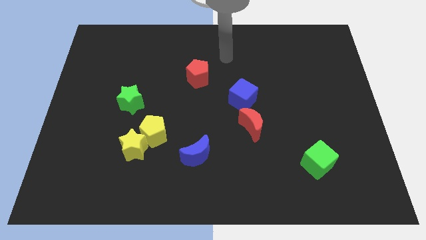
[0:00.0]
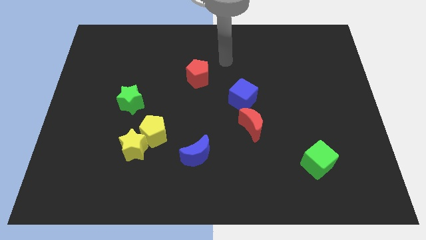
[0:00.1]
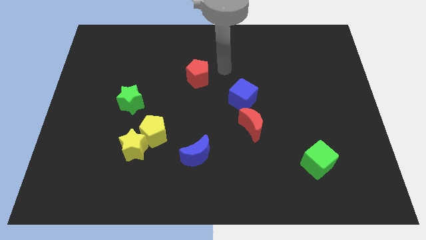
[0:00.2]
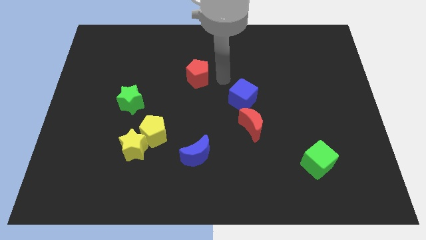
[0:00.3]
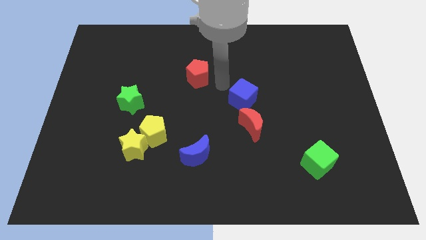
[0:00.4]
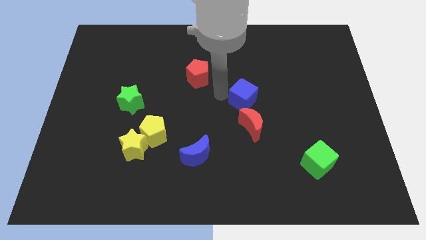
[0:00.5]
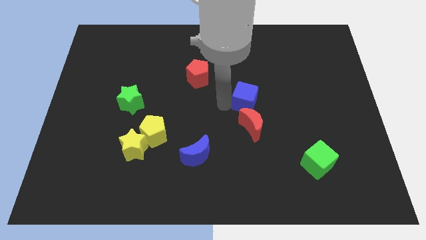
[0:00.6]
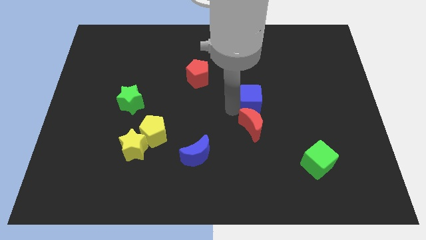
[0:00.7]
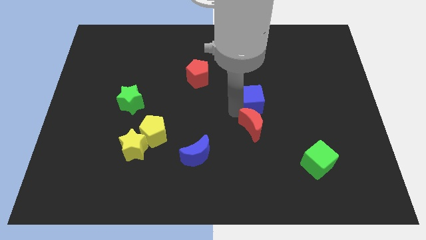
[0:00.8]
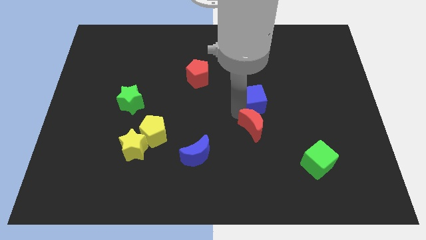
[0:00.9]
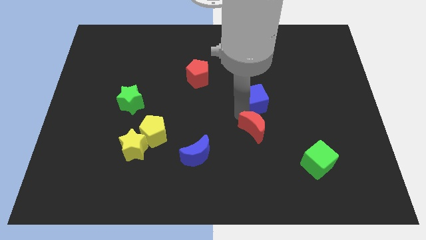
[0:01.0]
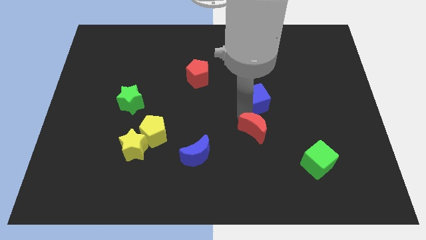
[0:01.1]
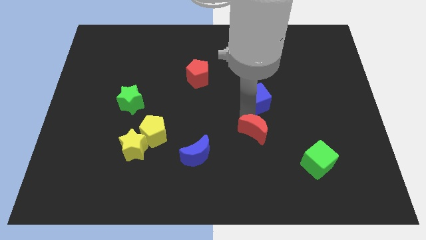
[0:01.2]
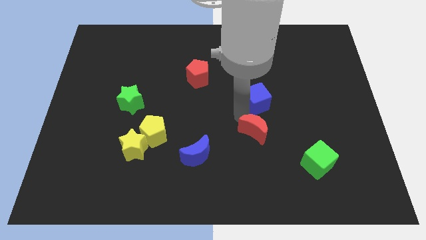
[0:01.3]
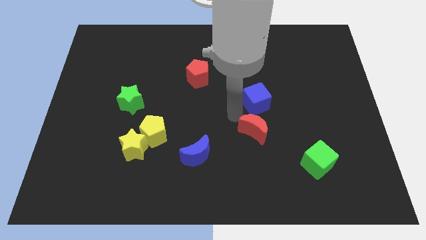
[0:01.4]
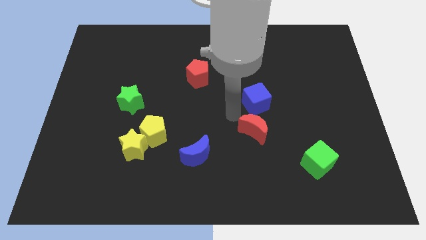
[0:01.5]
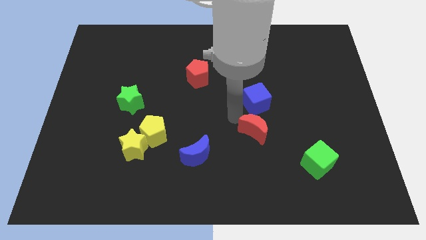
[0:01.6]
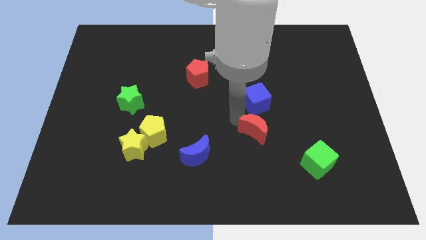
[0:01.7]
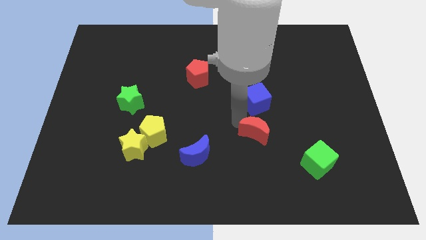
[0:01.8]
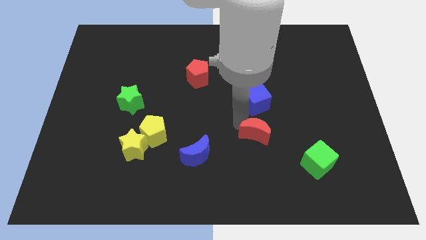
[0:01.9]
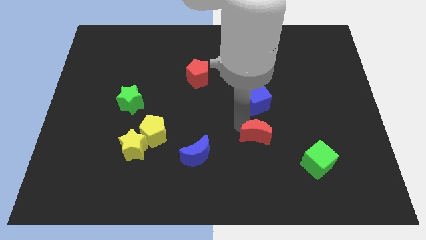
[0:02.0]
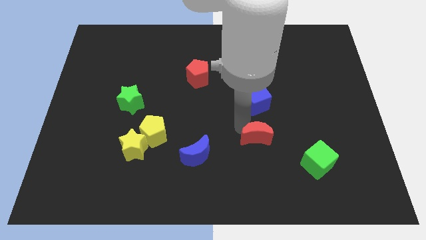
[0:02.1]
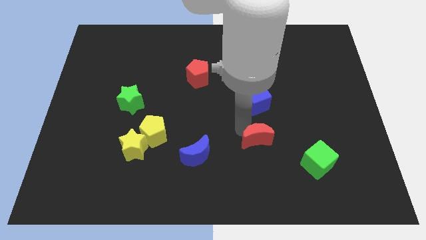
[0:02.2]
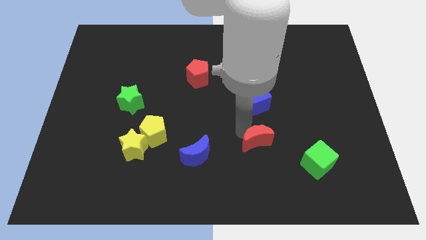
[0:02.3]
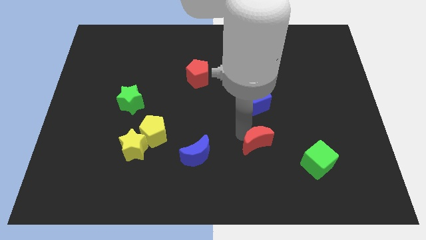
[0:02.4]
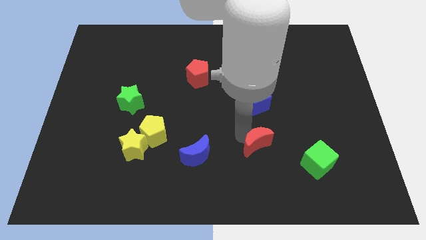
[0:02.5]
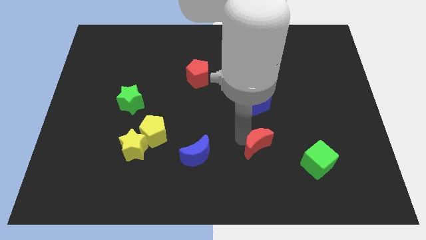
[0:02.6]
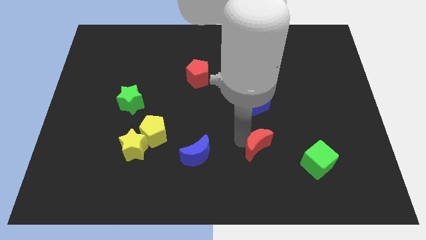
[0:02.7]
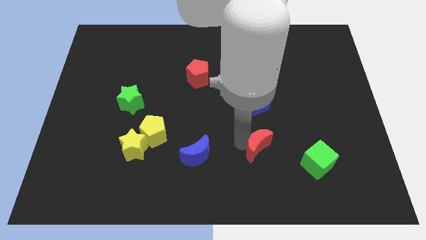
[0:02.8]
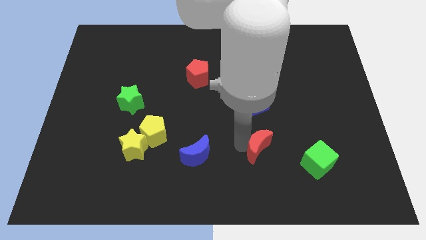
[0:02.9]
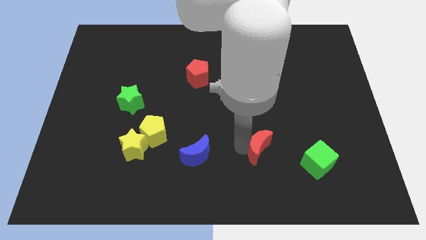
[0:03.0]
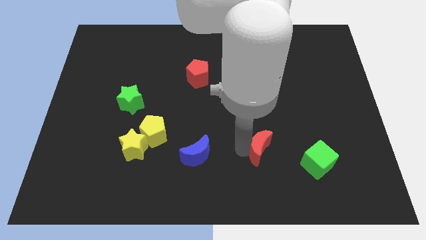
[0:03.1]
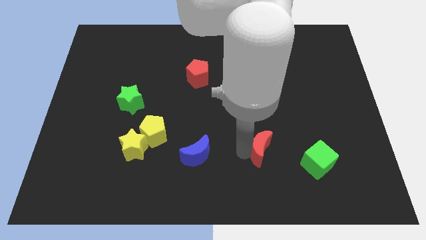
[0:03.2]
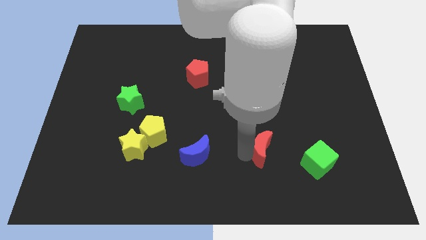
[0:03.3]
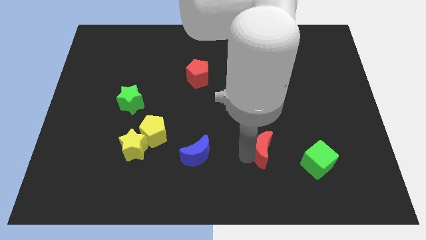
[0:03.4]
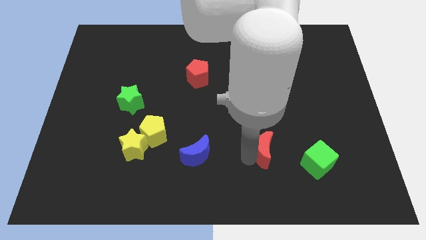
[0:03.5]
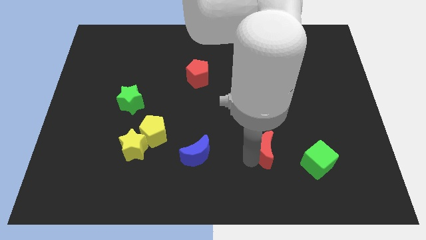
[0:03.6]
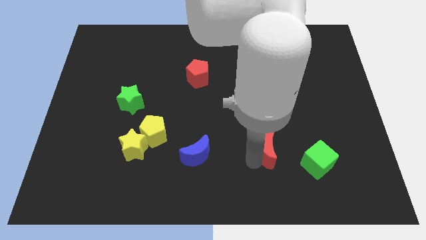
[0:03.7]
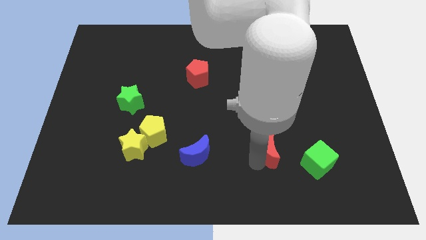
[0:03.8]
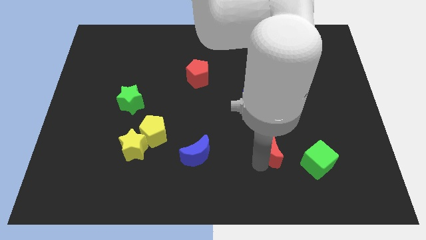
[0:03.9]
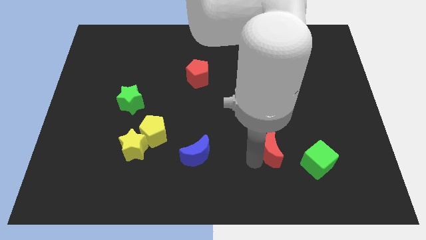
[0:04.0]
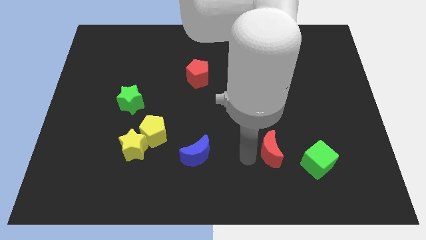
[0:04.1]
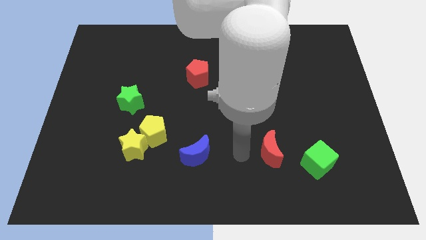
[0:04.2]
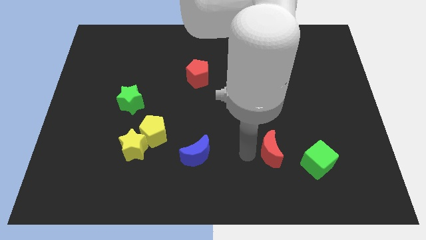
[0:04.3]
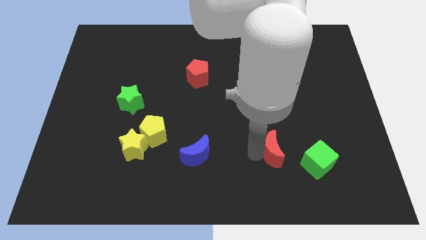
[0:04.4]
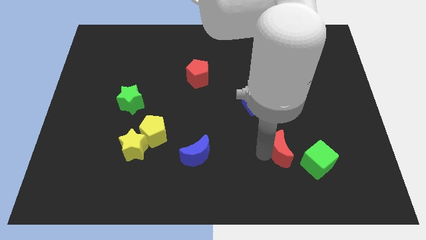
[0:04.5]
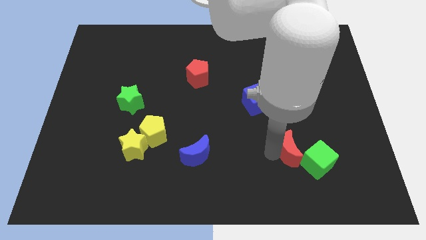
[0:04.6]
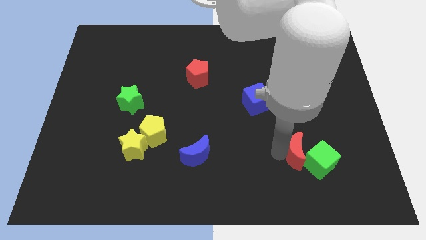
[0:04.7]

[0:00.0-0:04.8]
move the red moon towards the green cube

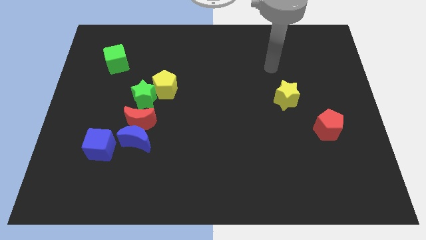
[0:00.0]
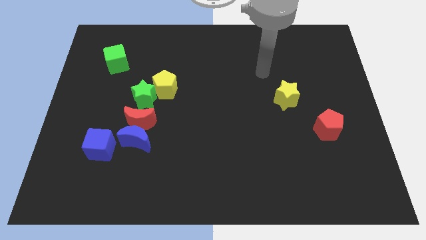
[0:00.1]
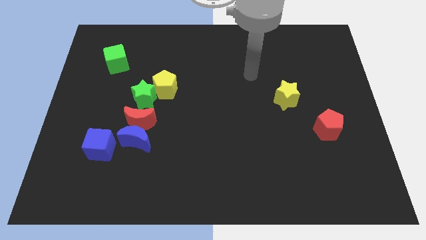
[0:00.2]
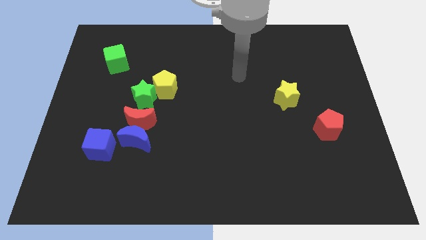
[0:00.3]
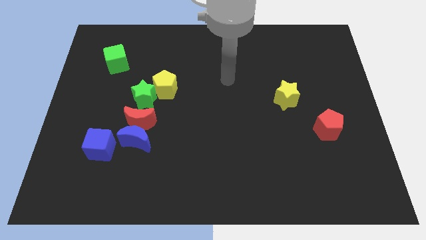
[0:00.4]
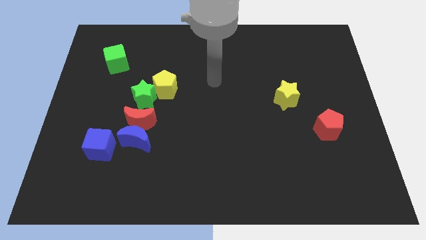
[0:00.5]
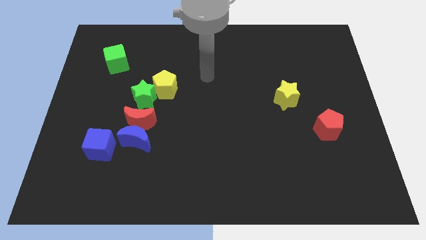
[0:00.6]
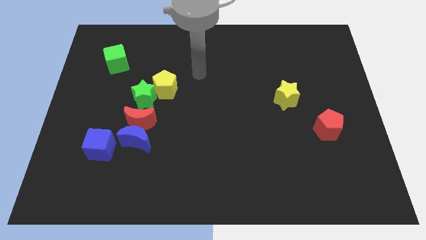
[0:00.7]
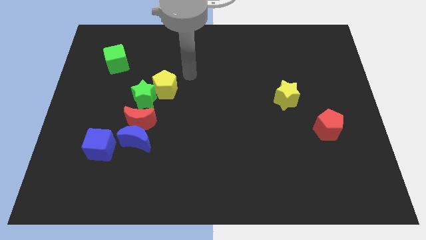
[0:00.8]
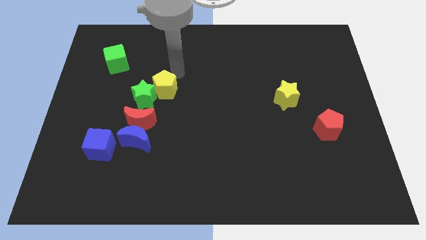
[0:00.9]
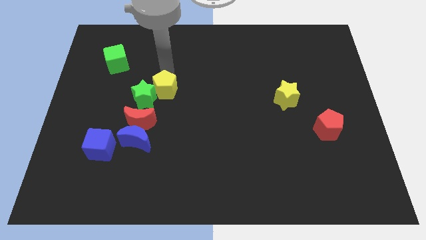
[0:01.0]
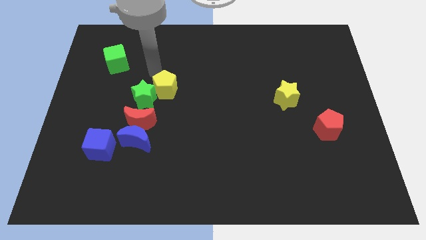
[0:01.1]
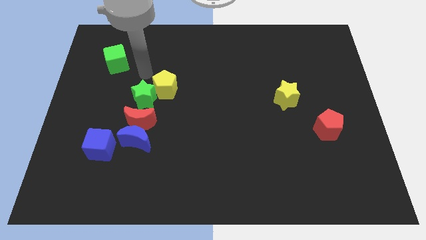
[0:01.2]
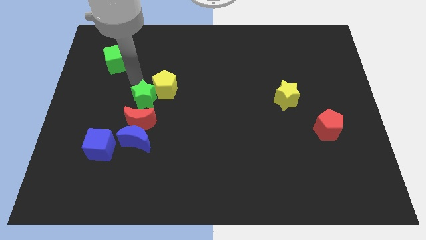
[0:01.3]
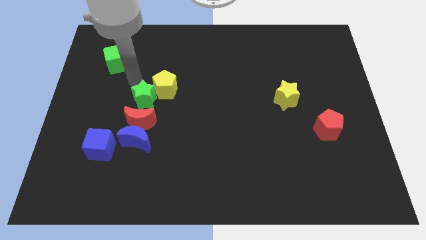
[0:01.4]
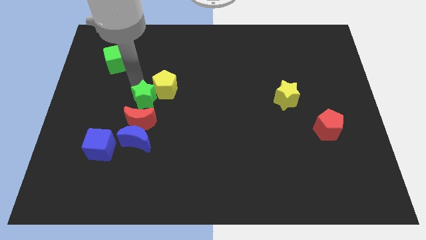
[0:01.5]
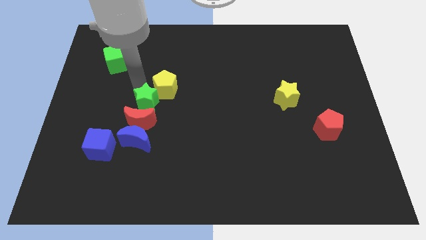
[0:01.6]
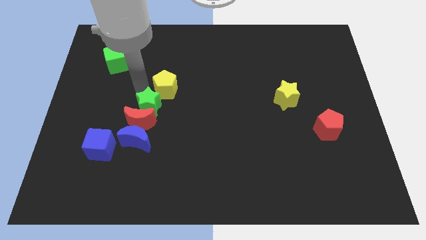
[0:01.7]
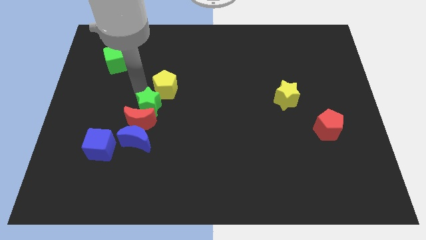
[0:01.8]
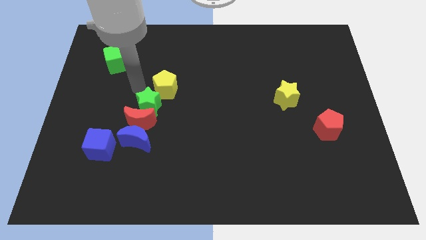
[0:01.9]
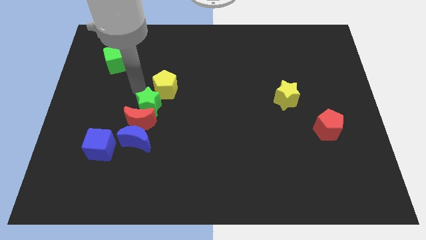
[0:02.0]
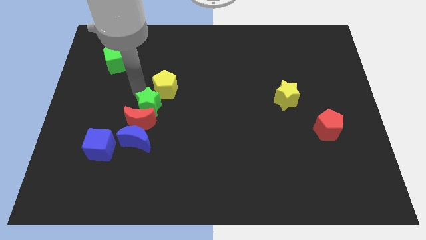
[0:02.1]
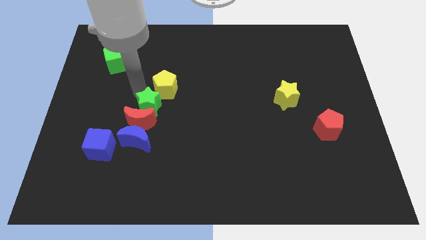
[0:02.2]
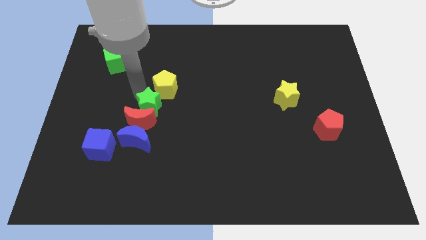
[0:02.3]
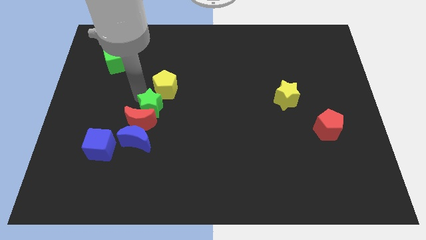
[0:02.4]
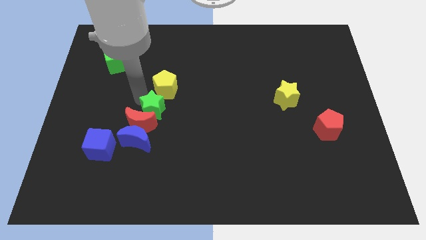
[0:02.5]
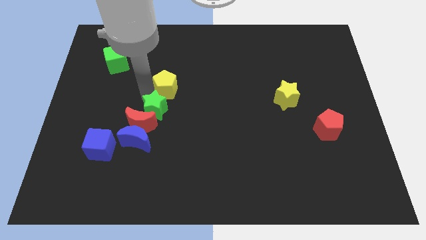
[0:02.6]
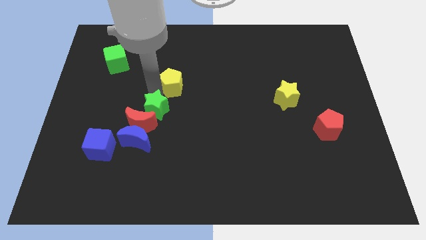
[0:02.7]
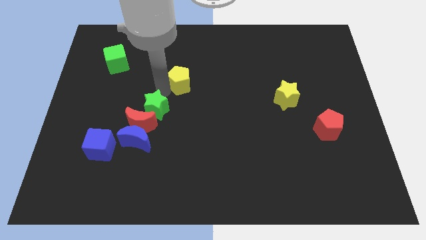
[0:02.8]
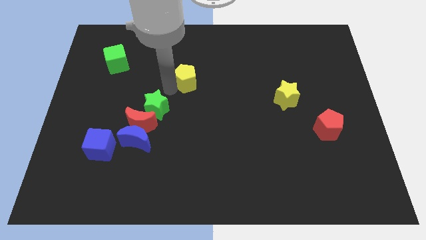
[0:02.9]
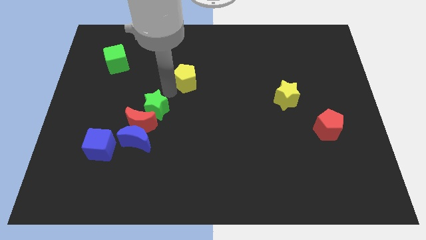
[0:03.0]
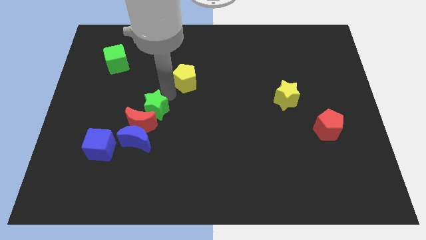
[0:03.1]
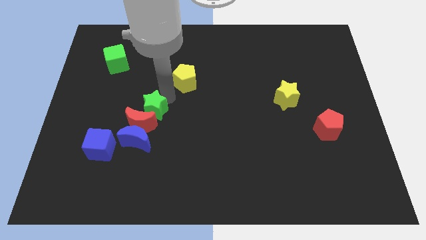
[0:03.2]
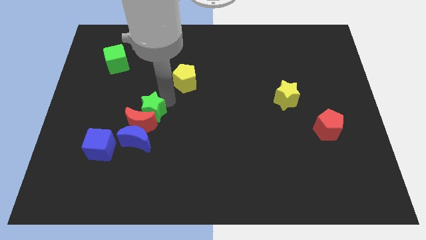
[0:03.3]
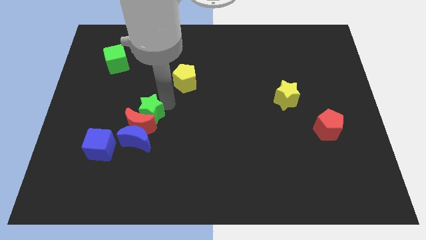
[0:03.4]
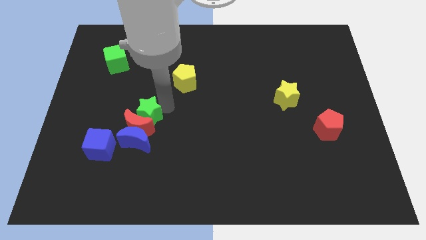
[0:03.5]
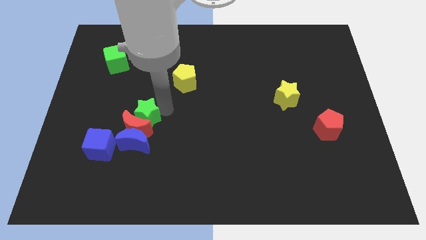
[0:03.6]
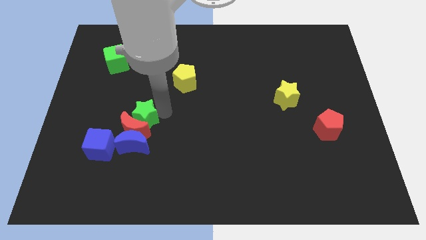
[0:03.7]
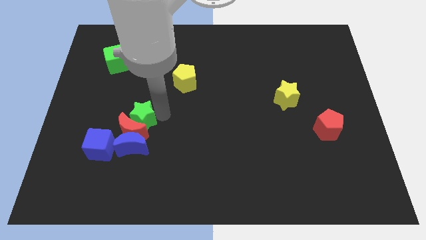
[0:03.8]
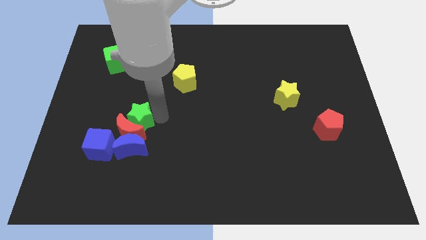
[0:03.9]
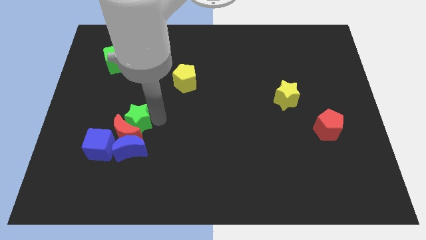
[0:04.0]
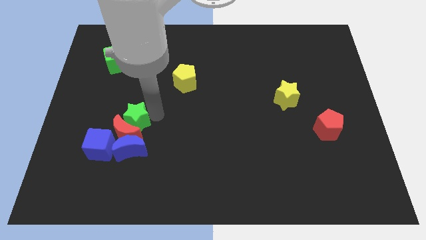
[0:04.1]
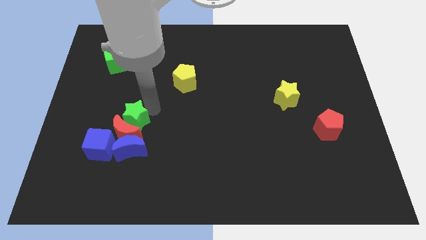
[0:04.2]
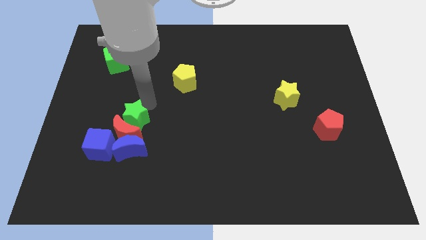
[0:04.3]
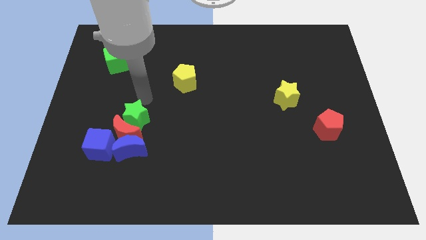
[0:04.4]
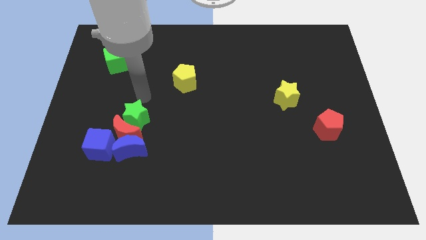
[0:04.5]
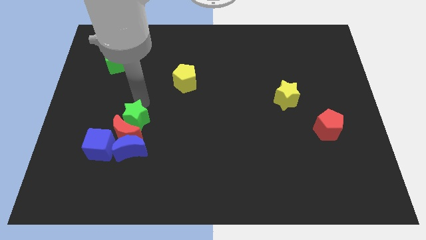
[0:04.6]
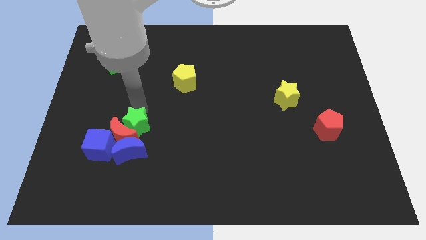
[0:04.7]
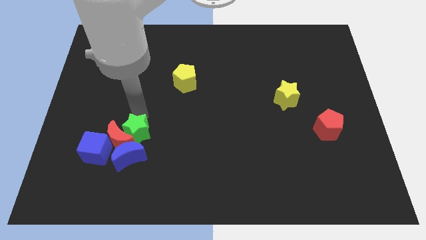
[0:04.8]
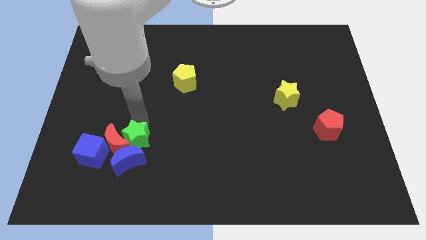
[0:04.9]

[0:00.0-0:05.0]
push the green star to the blue moon
